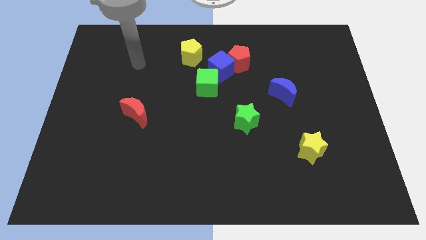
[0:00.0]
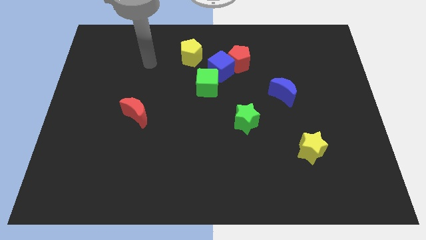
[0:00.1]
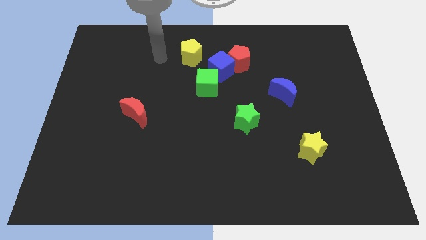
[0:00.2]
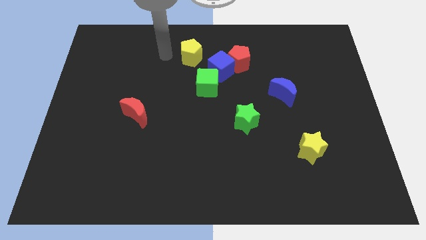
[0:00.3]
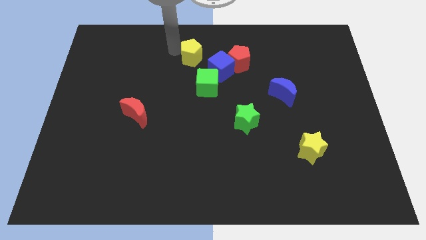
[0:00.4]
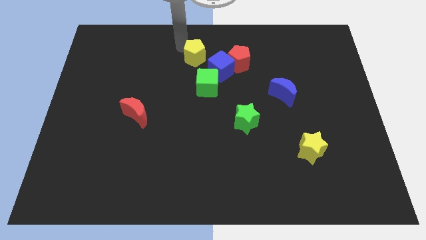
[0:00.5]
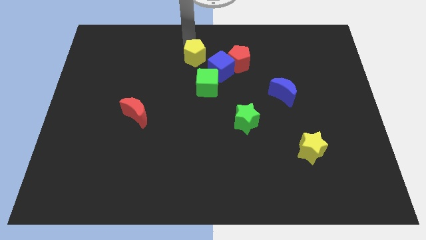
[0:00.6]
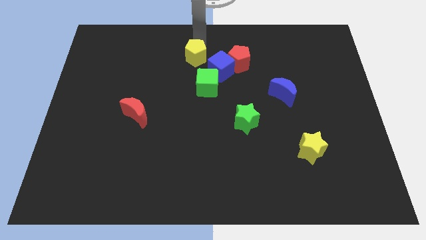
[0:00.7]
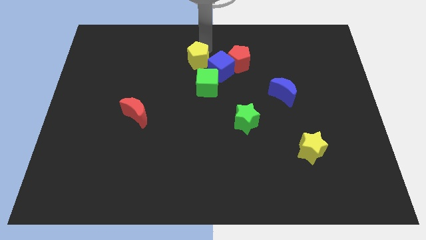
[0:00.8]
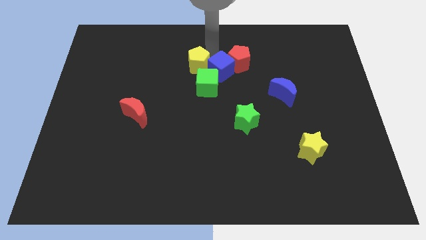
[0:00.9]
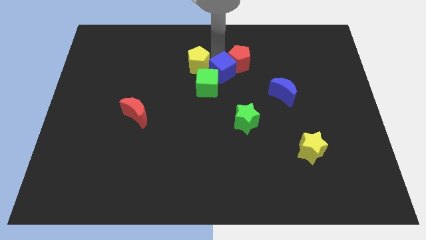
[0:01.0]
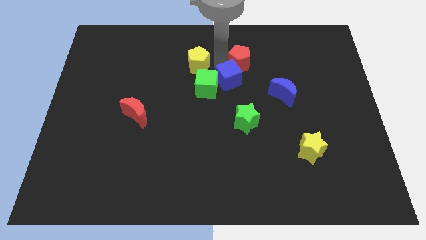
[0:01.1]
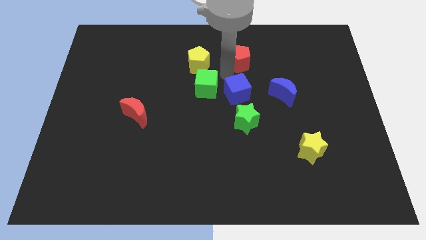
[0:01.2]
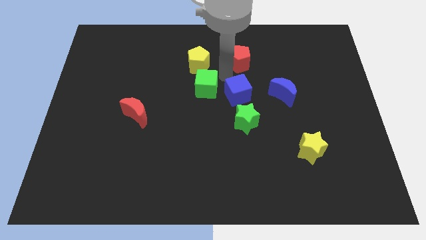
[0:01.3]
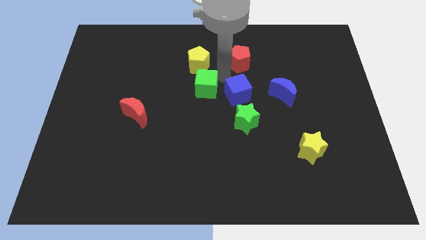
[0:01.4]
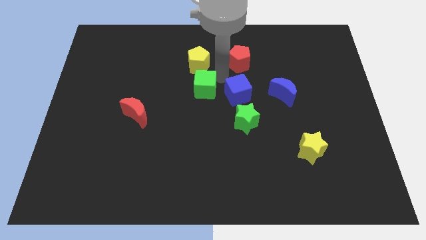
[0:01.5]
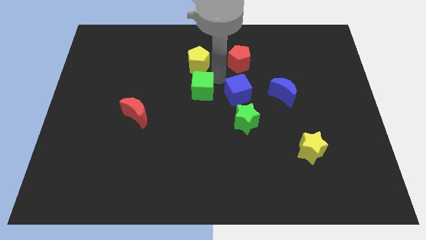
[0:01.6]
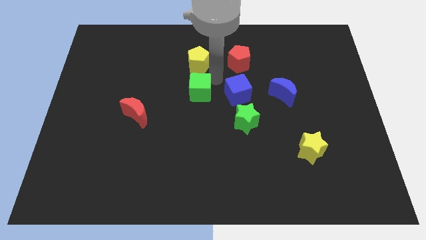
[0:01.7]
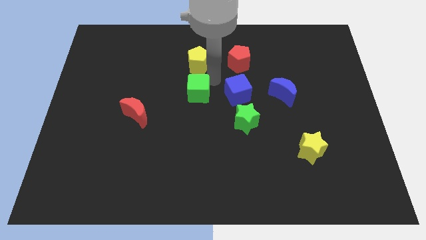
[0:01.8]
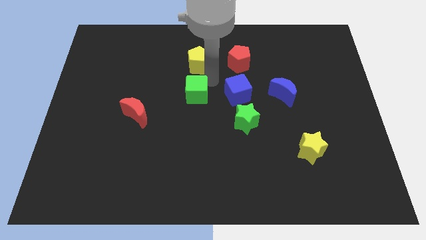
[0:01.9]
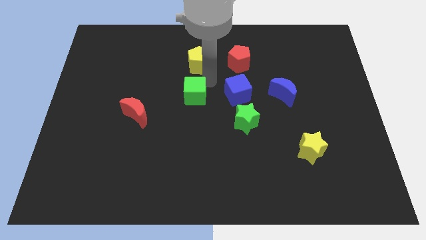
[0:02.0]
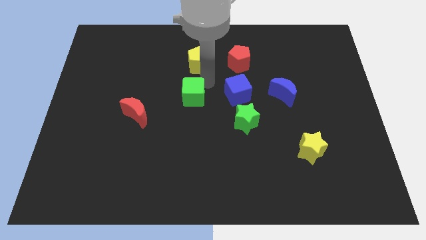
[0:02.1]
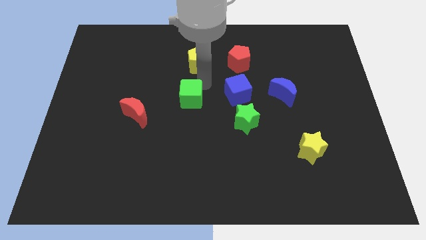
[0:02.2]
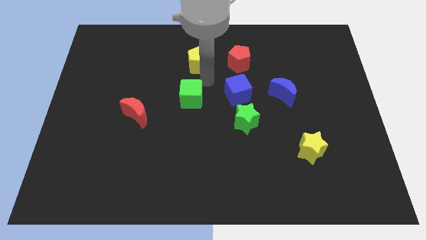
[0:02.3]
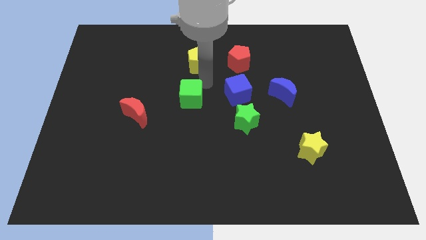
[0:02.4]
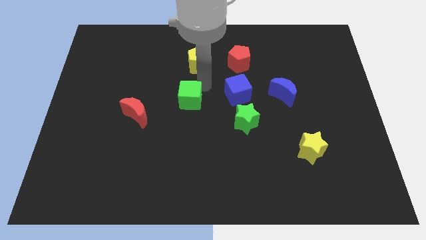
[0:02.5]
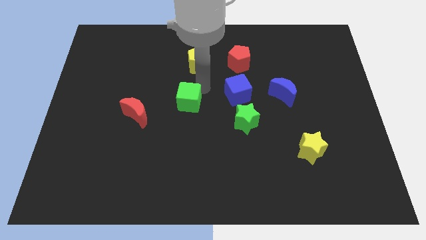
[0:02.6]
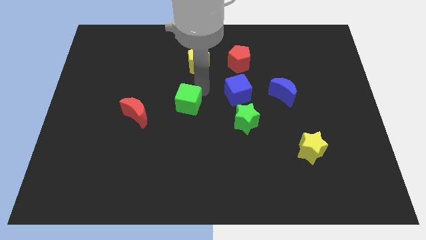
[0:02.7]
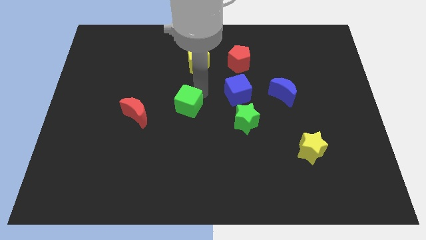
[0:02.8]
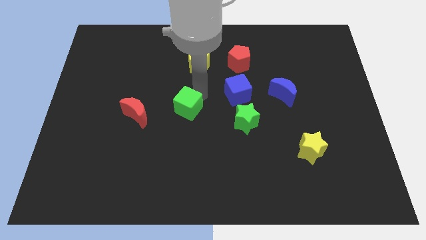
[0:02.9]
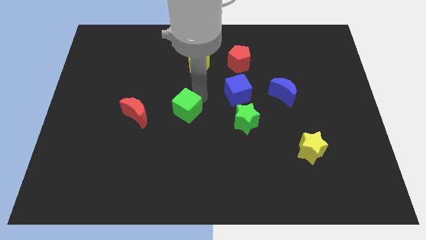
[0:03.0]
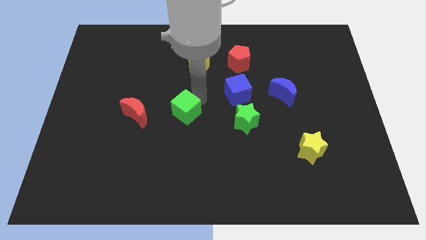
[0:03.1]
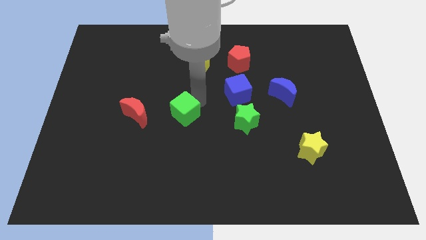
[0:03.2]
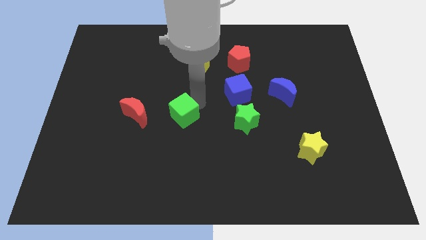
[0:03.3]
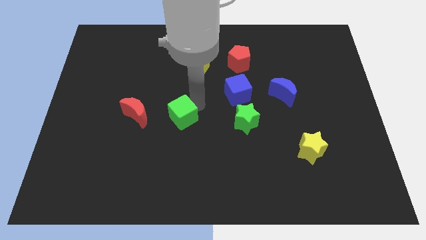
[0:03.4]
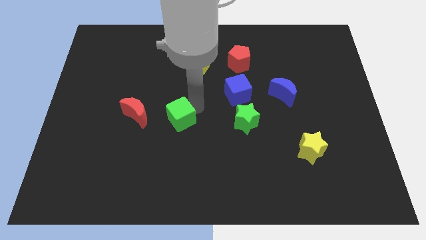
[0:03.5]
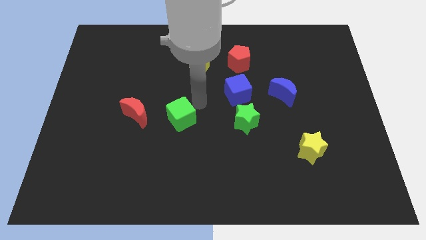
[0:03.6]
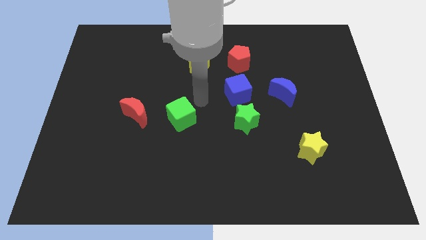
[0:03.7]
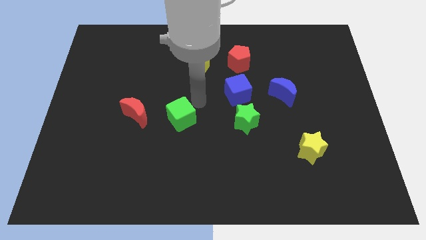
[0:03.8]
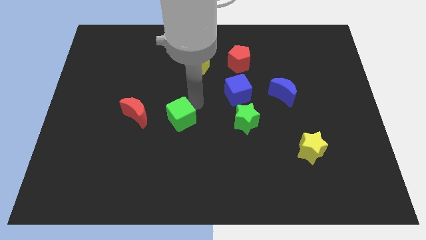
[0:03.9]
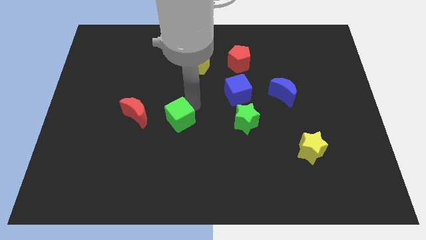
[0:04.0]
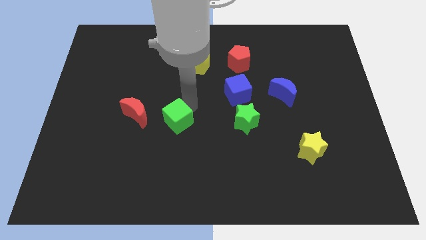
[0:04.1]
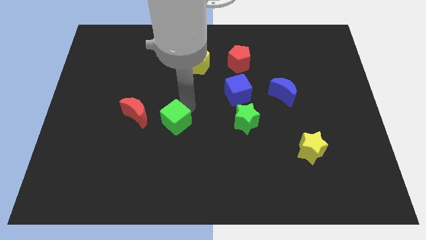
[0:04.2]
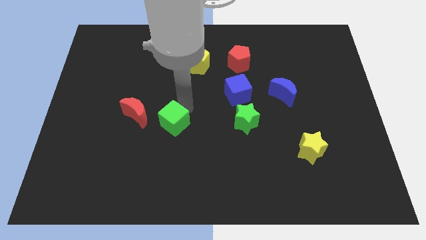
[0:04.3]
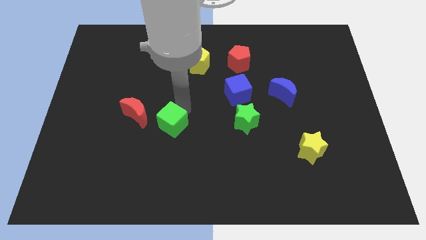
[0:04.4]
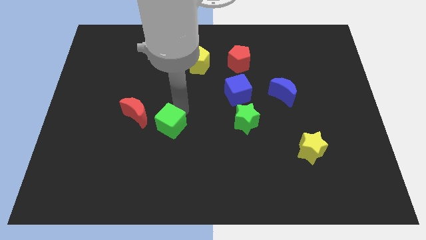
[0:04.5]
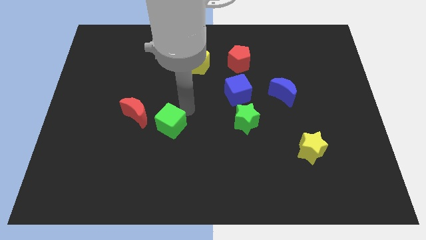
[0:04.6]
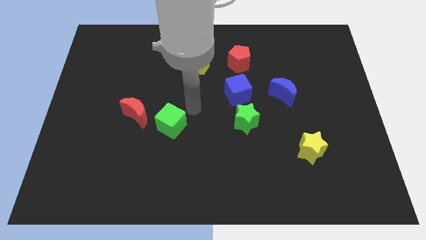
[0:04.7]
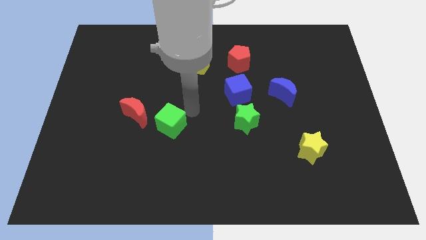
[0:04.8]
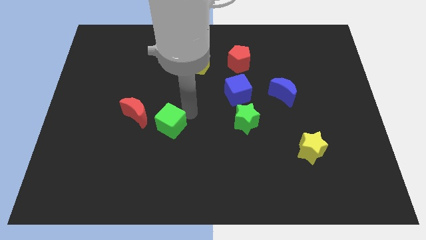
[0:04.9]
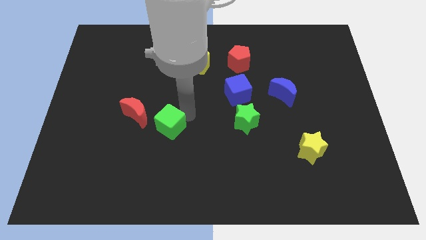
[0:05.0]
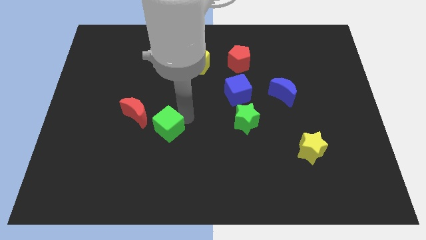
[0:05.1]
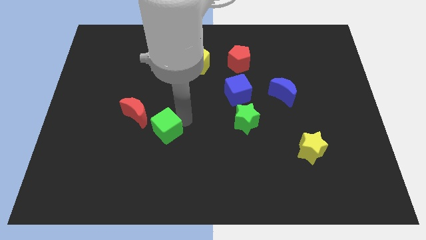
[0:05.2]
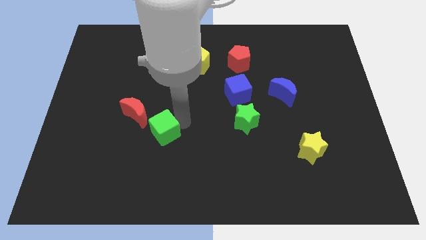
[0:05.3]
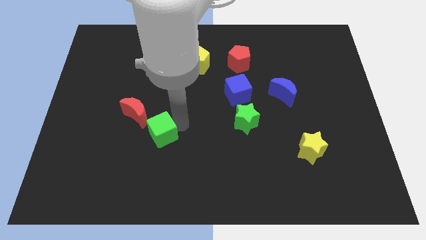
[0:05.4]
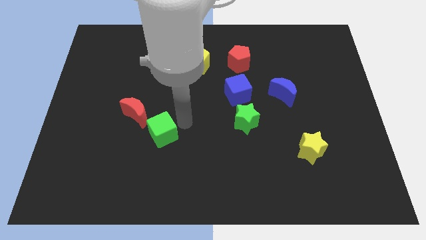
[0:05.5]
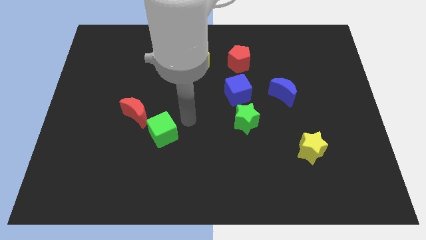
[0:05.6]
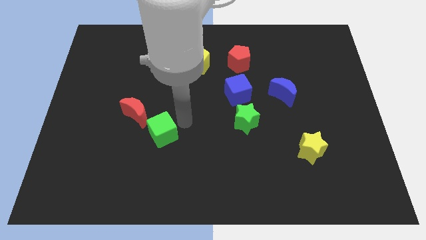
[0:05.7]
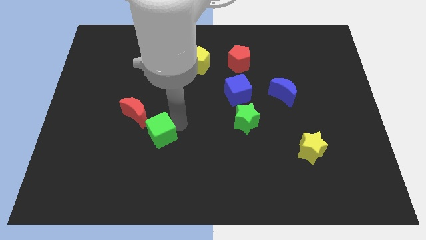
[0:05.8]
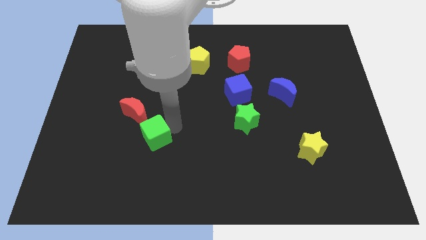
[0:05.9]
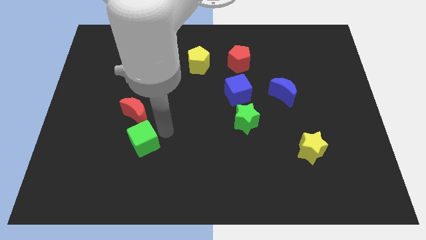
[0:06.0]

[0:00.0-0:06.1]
slide the green cube down and then left

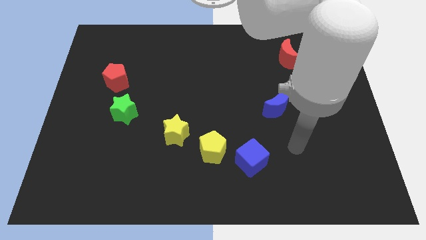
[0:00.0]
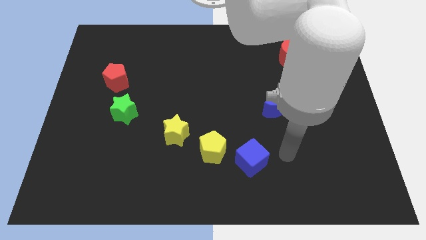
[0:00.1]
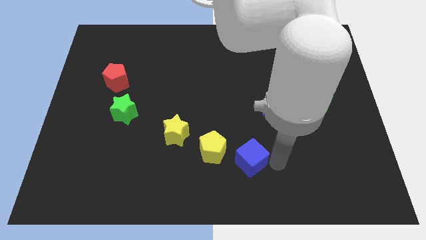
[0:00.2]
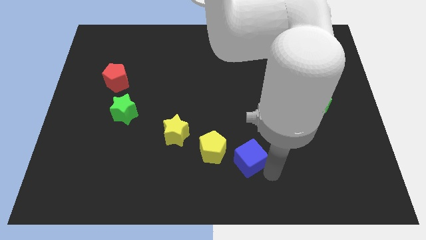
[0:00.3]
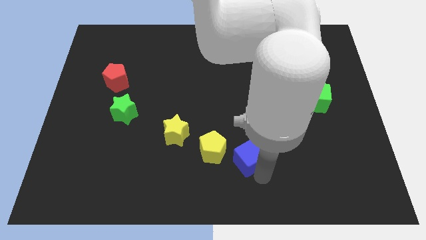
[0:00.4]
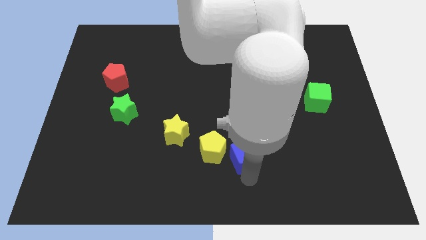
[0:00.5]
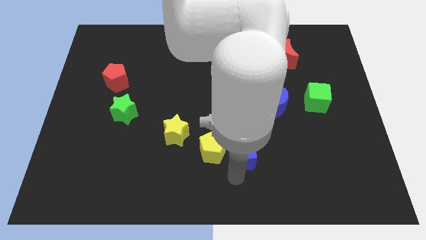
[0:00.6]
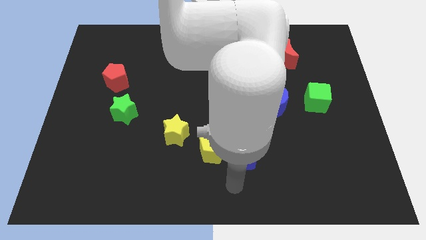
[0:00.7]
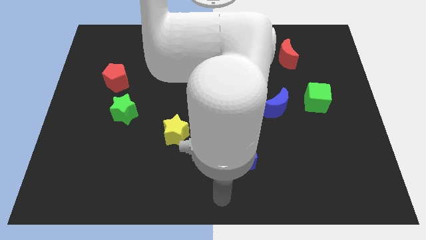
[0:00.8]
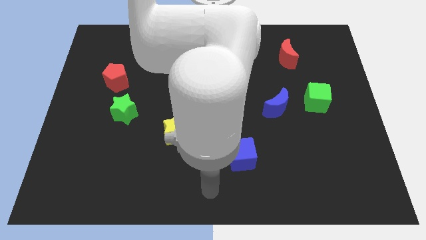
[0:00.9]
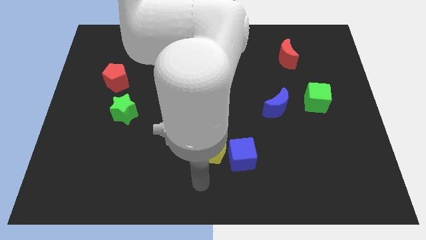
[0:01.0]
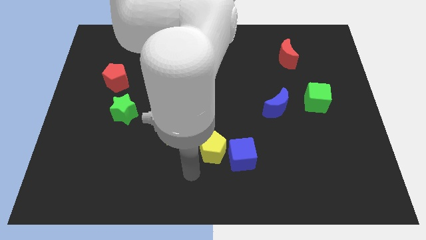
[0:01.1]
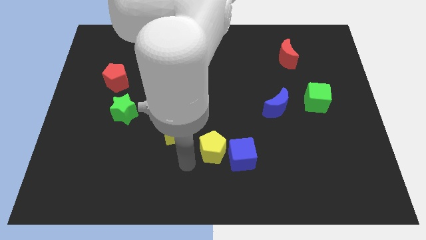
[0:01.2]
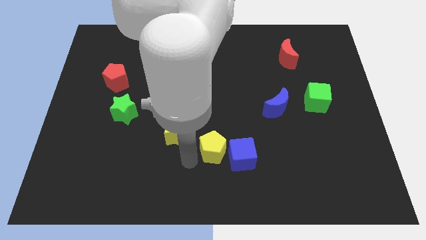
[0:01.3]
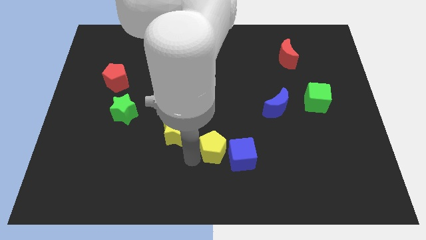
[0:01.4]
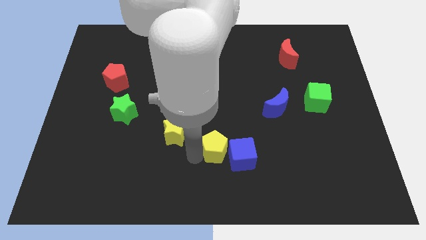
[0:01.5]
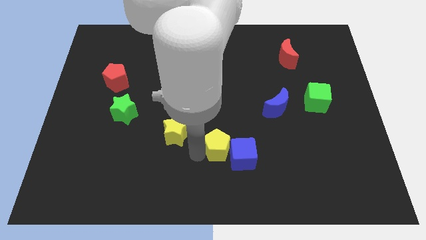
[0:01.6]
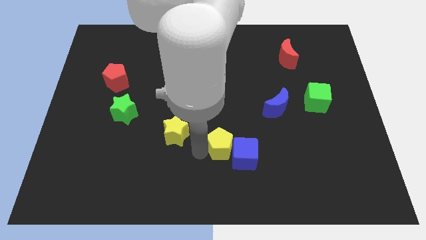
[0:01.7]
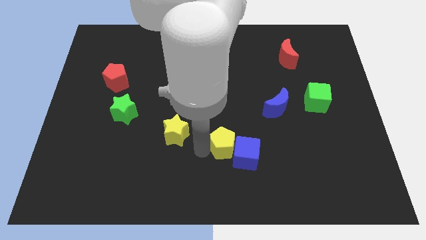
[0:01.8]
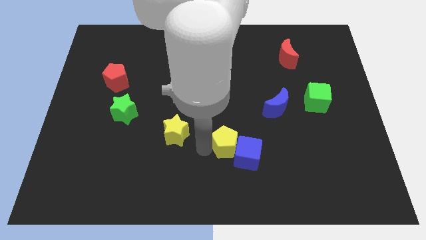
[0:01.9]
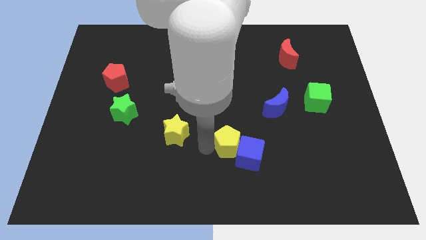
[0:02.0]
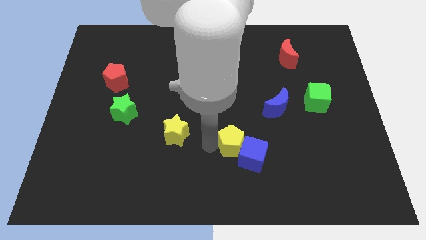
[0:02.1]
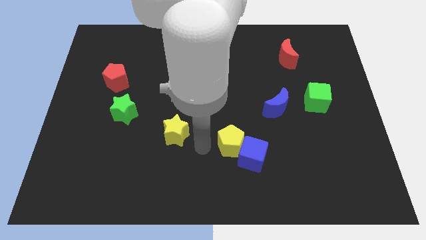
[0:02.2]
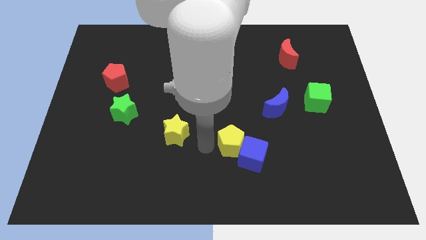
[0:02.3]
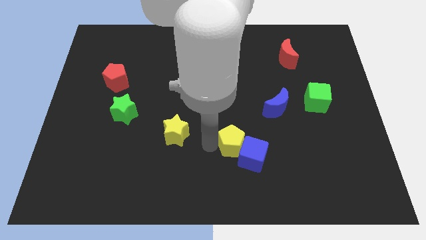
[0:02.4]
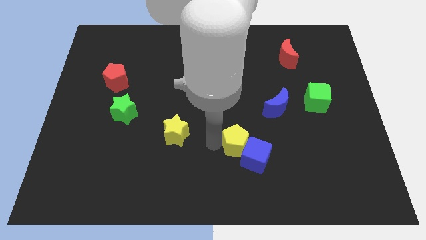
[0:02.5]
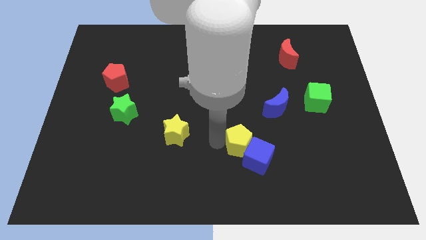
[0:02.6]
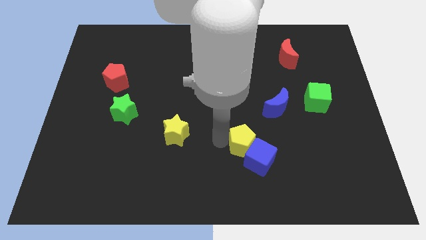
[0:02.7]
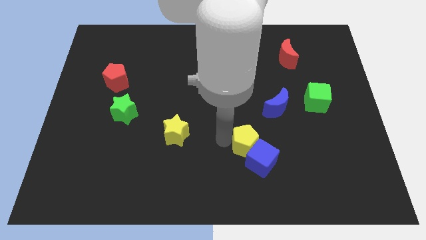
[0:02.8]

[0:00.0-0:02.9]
push the yellow pentagon right somewhat
